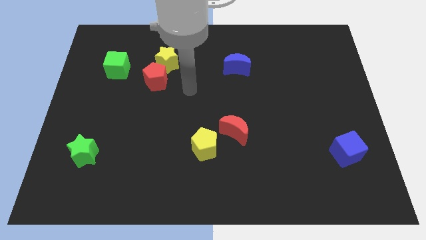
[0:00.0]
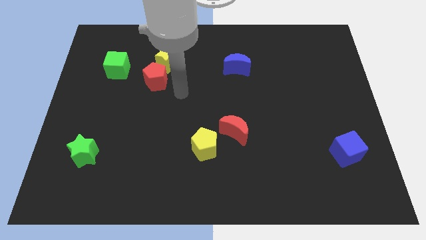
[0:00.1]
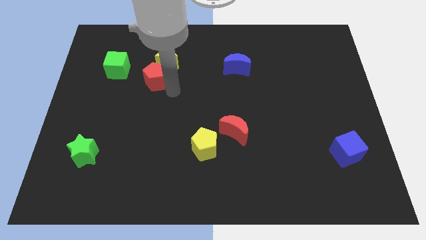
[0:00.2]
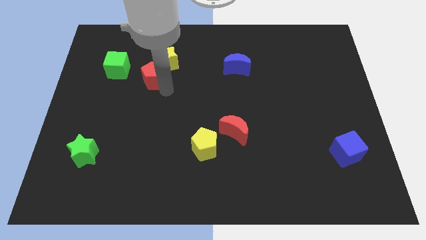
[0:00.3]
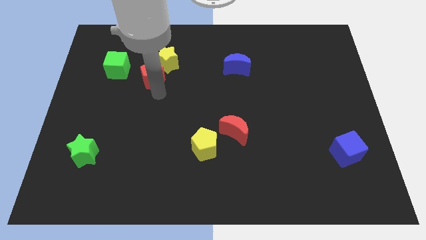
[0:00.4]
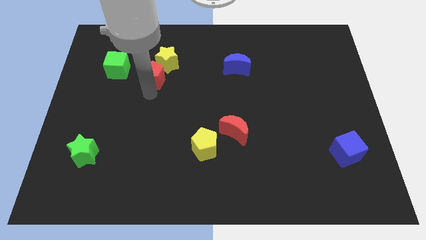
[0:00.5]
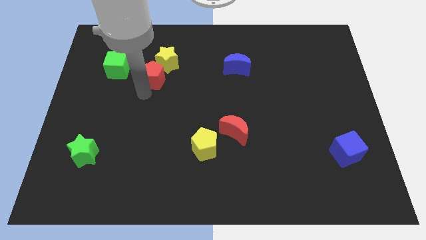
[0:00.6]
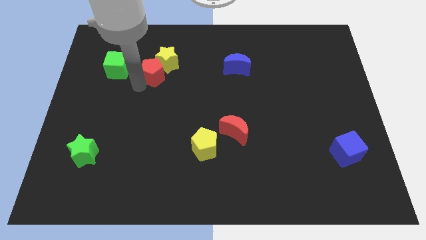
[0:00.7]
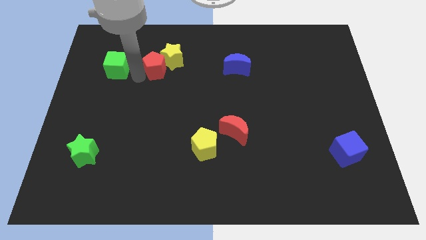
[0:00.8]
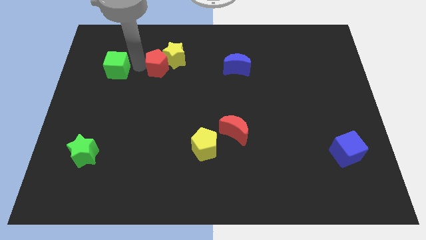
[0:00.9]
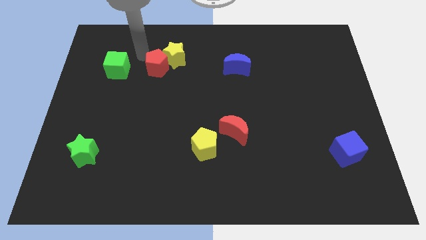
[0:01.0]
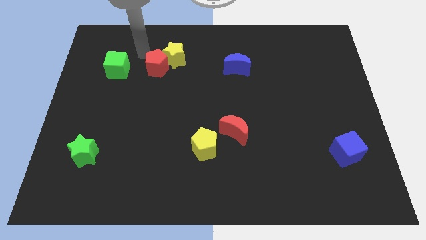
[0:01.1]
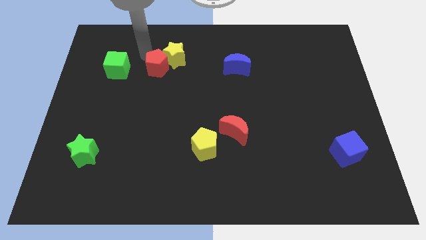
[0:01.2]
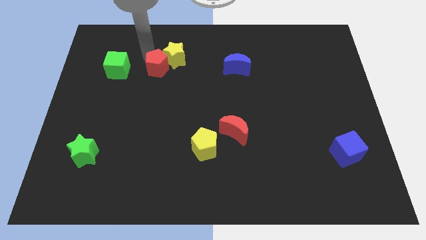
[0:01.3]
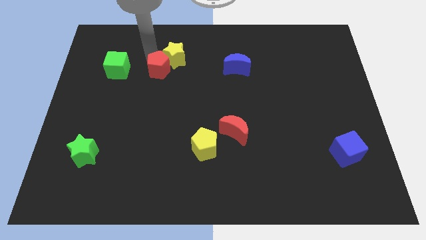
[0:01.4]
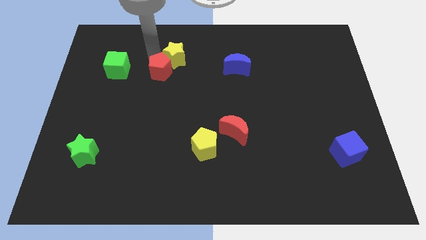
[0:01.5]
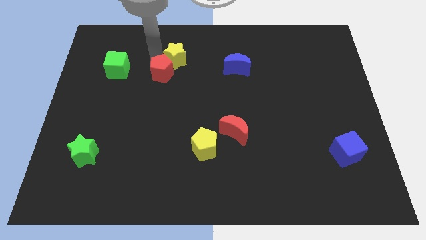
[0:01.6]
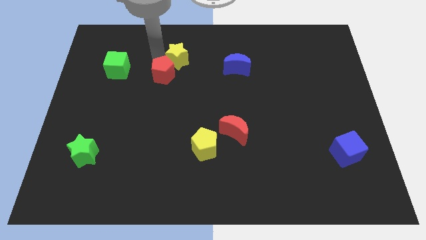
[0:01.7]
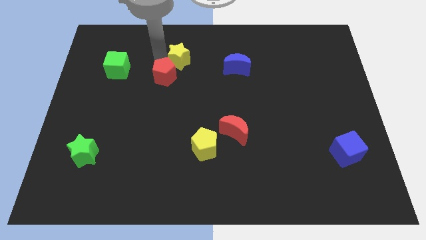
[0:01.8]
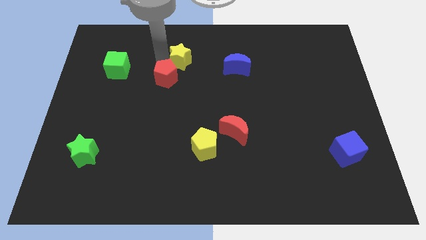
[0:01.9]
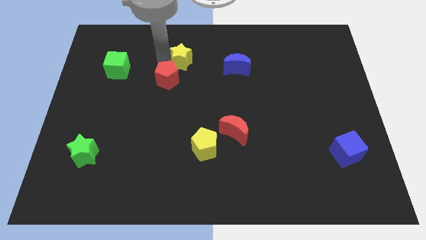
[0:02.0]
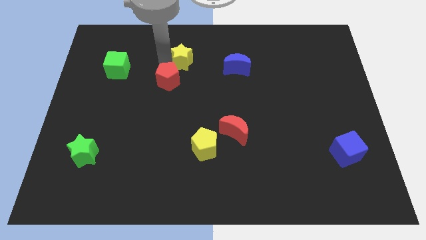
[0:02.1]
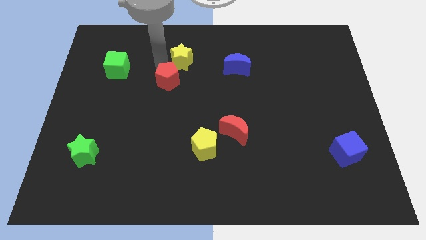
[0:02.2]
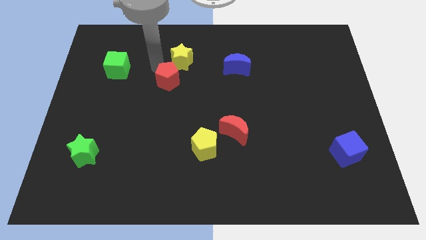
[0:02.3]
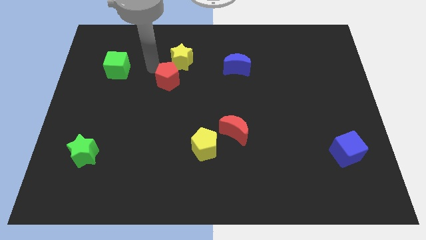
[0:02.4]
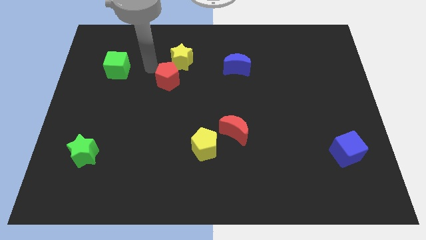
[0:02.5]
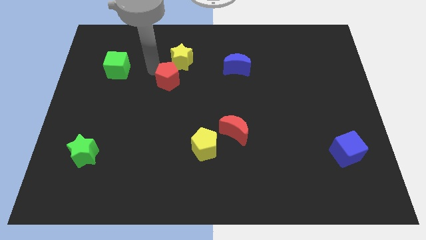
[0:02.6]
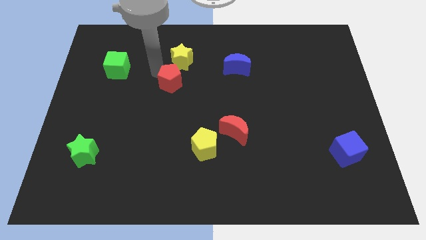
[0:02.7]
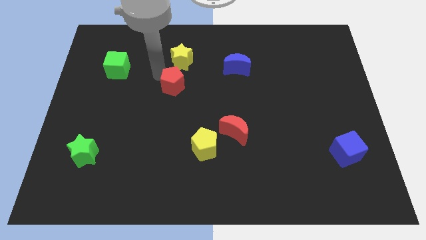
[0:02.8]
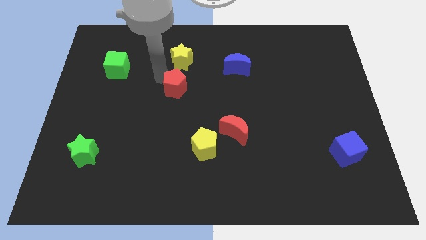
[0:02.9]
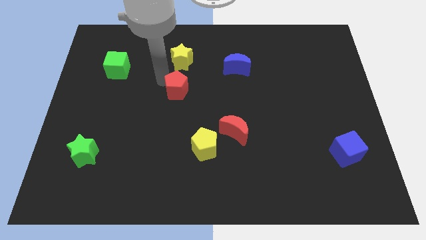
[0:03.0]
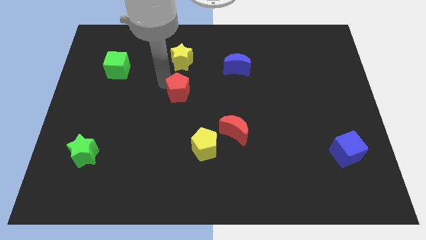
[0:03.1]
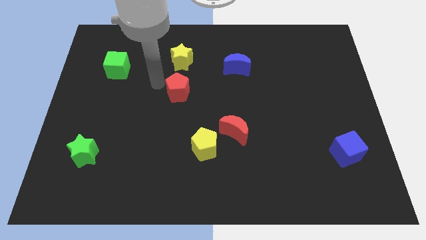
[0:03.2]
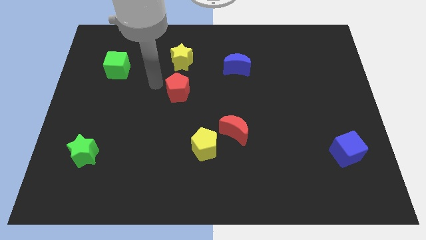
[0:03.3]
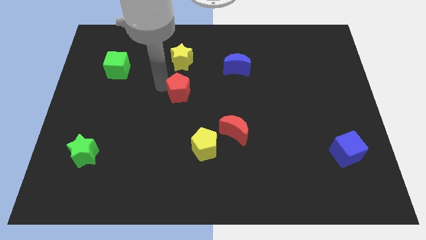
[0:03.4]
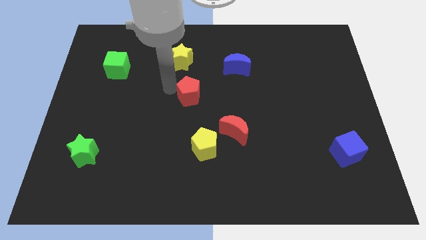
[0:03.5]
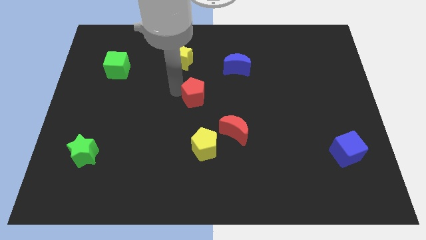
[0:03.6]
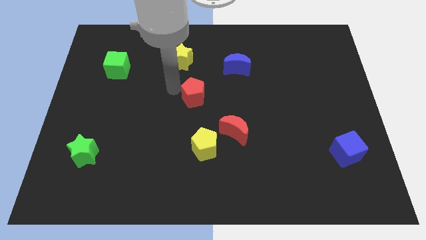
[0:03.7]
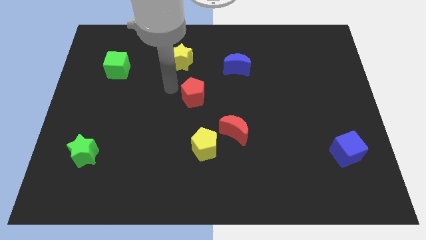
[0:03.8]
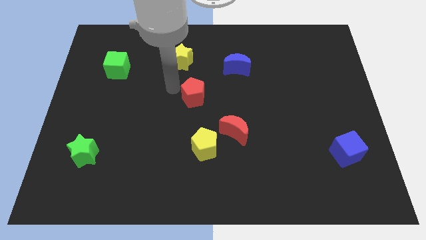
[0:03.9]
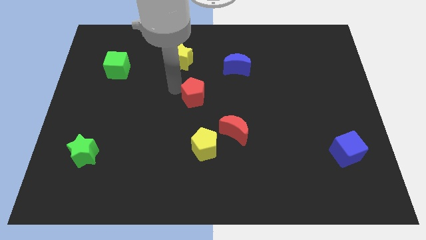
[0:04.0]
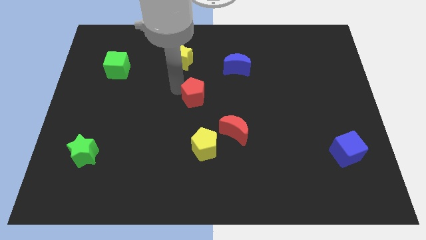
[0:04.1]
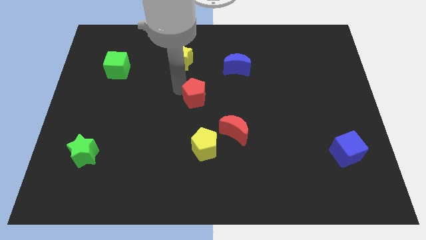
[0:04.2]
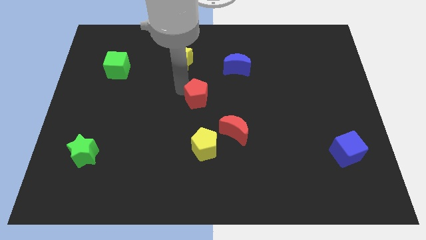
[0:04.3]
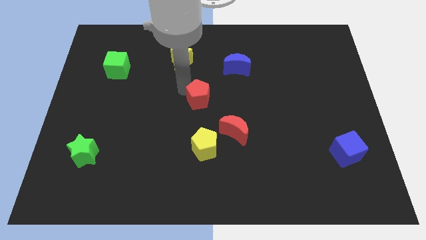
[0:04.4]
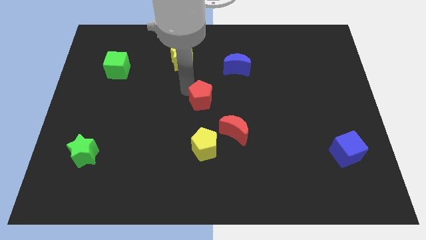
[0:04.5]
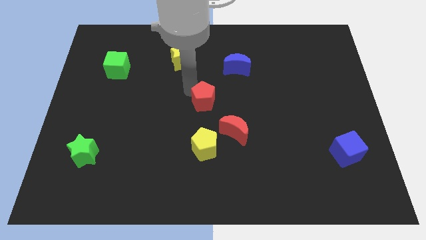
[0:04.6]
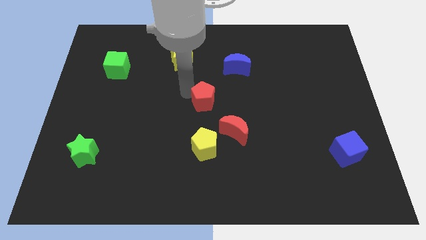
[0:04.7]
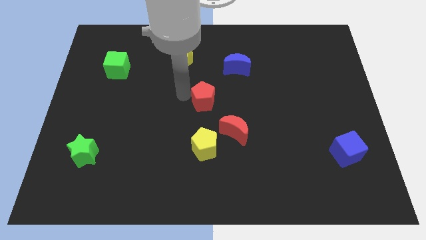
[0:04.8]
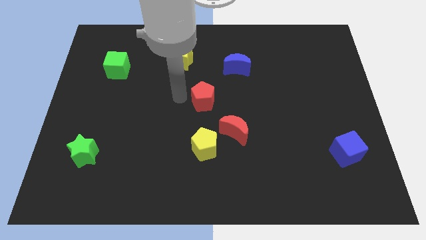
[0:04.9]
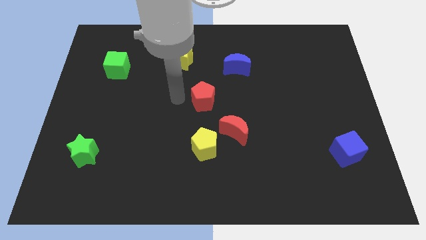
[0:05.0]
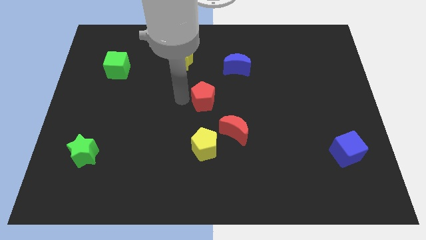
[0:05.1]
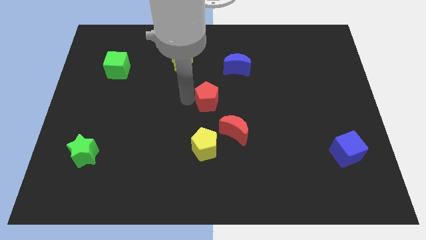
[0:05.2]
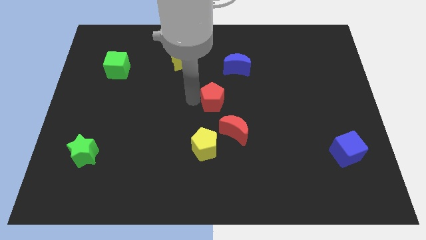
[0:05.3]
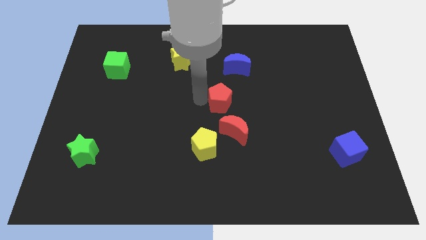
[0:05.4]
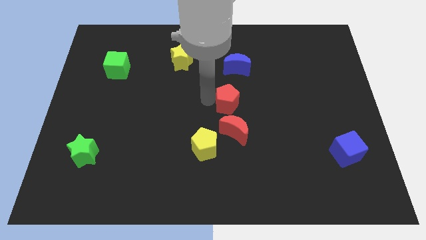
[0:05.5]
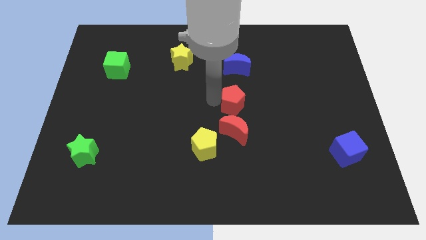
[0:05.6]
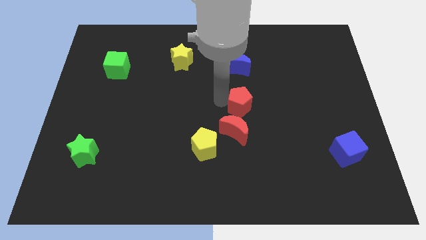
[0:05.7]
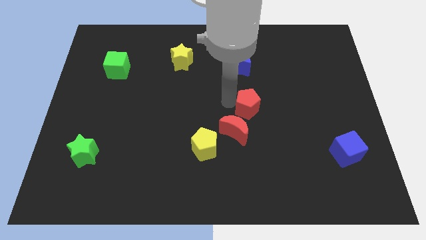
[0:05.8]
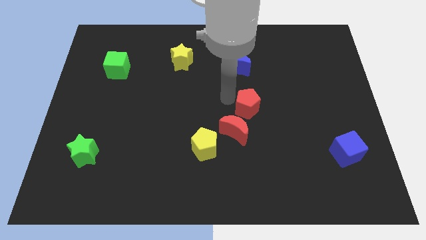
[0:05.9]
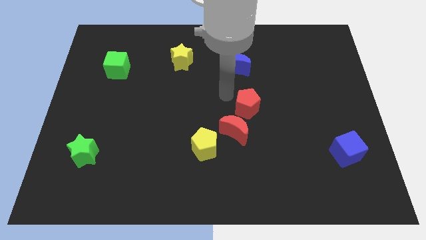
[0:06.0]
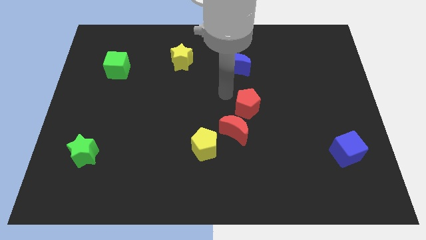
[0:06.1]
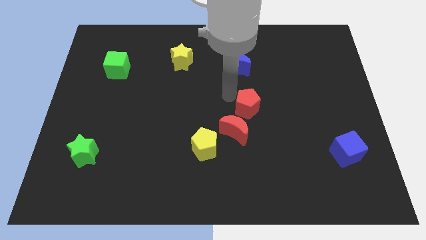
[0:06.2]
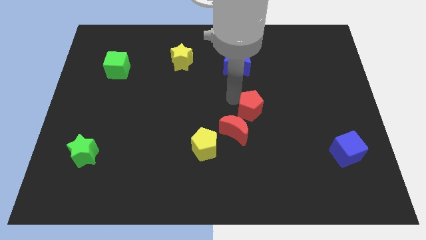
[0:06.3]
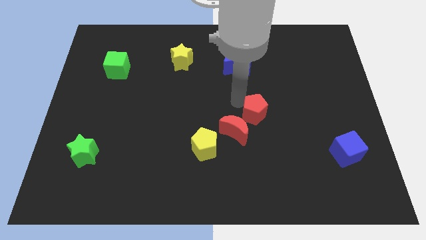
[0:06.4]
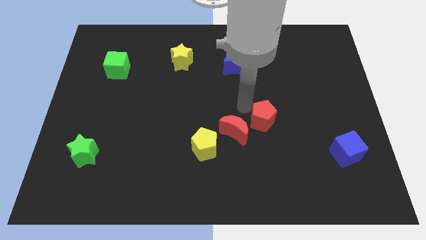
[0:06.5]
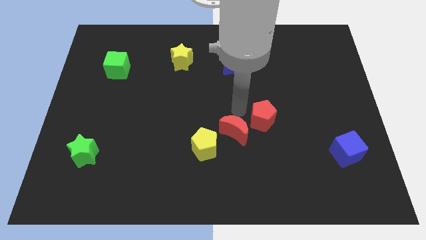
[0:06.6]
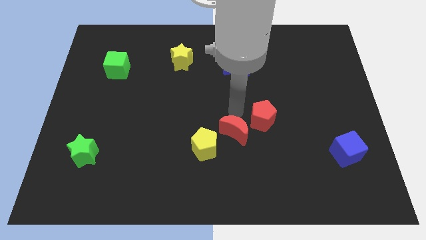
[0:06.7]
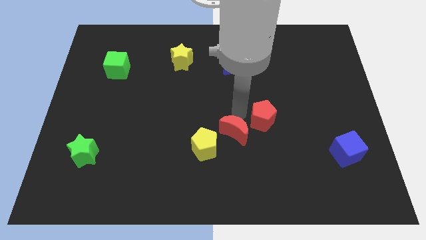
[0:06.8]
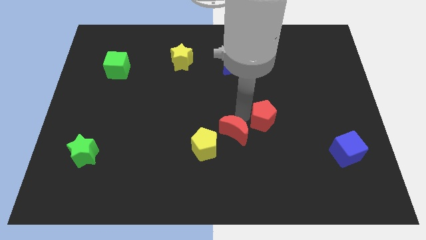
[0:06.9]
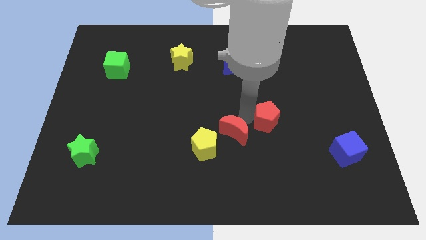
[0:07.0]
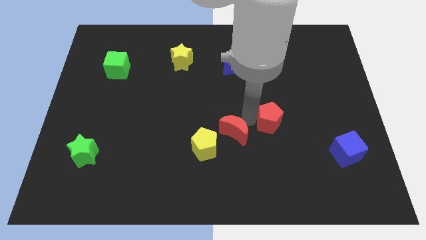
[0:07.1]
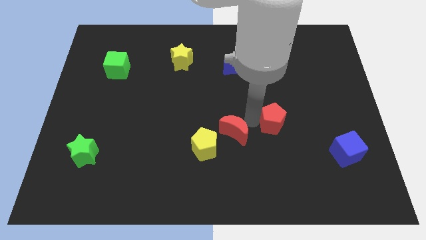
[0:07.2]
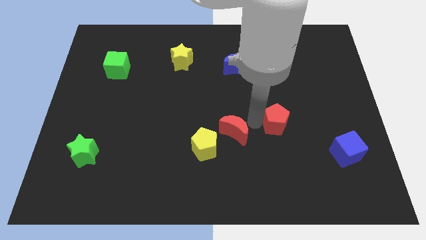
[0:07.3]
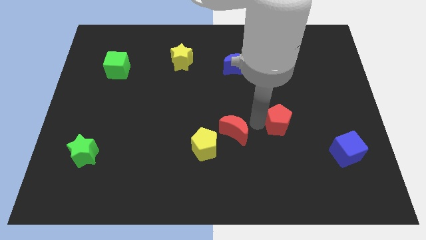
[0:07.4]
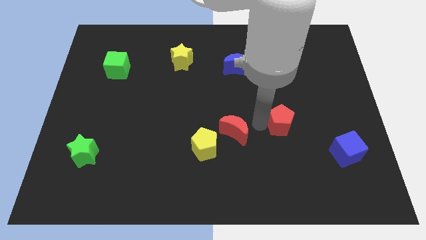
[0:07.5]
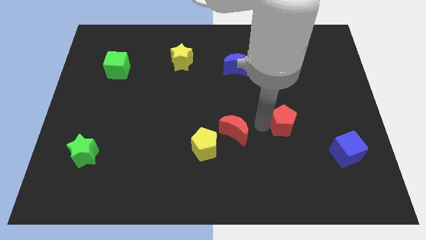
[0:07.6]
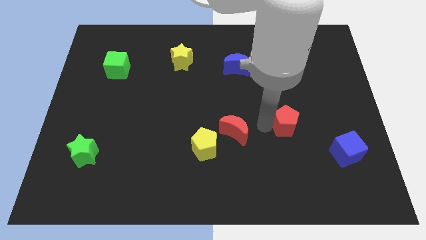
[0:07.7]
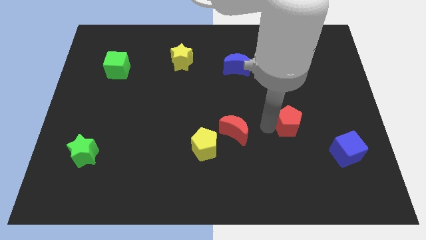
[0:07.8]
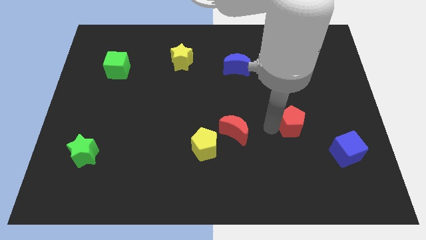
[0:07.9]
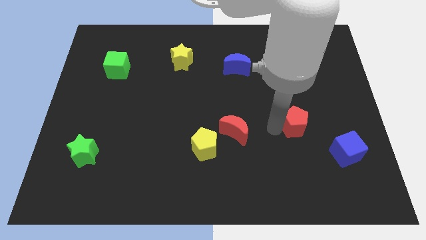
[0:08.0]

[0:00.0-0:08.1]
move the red pentagon to the top left side of the blue cube
